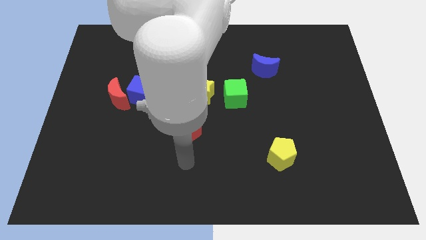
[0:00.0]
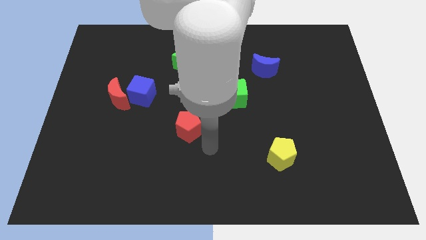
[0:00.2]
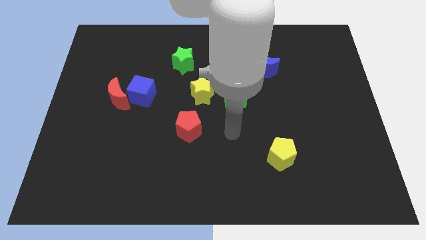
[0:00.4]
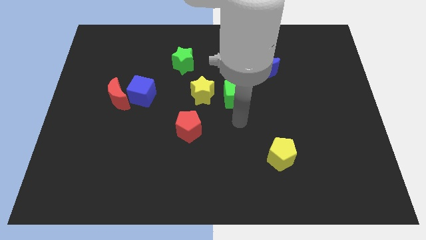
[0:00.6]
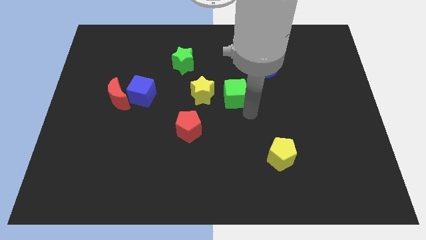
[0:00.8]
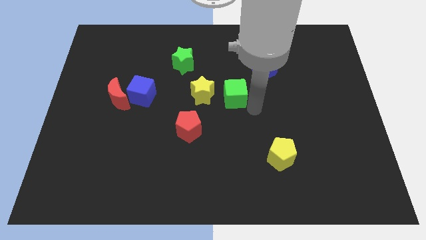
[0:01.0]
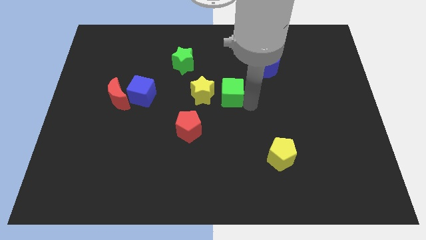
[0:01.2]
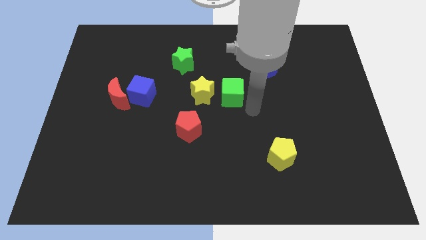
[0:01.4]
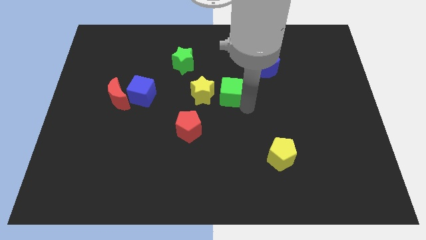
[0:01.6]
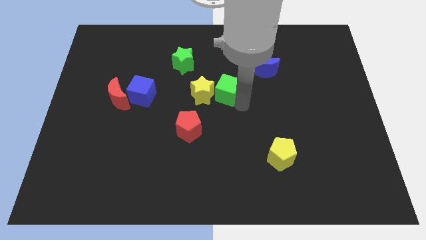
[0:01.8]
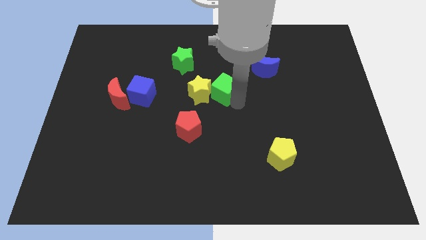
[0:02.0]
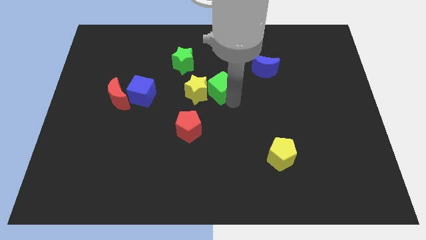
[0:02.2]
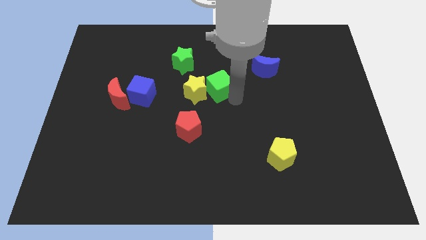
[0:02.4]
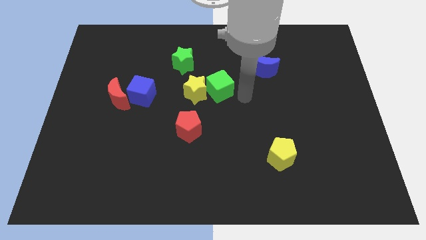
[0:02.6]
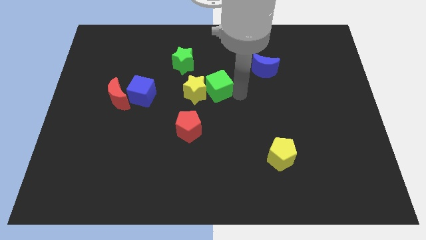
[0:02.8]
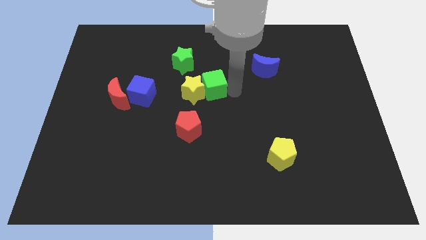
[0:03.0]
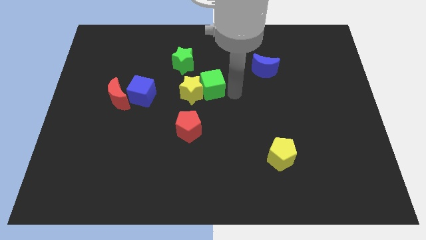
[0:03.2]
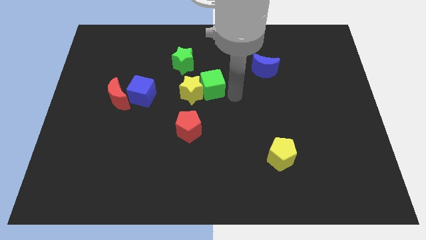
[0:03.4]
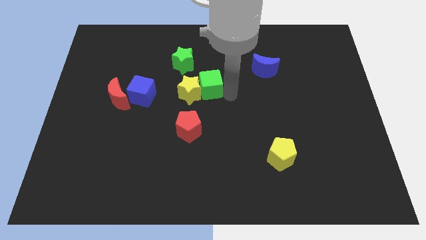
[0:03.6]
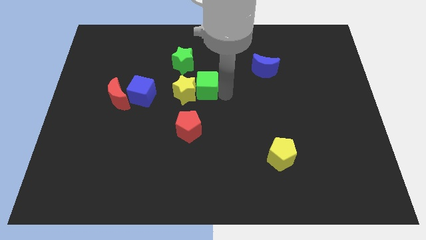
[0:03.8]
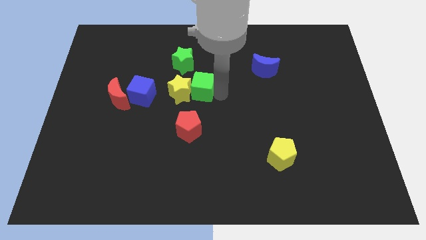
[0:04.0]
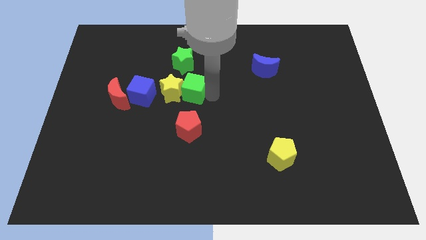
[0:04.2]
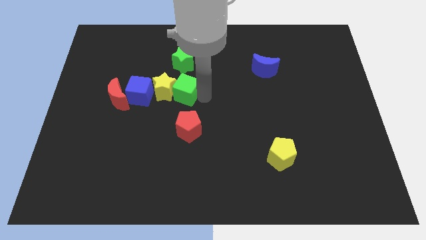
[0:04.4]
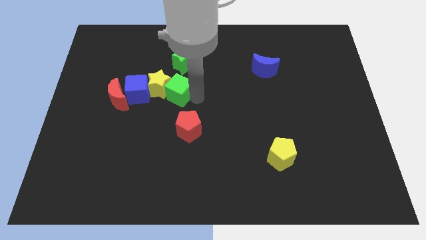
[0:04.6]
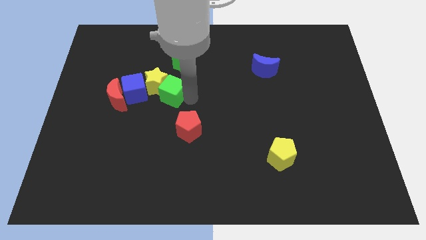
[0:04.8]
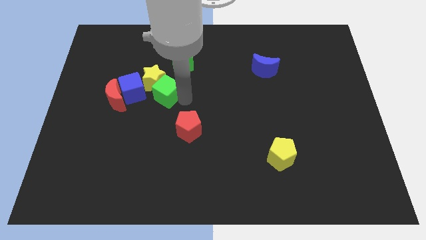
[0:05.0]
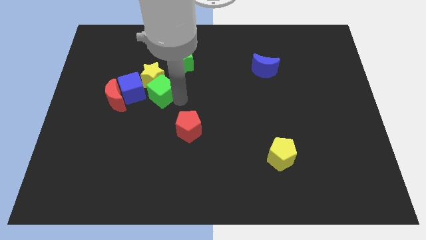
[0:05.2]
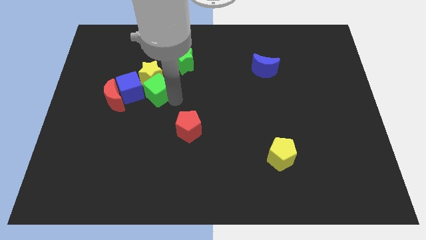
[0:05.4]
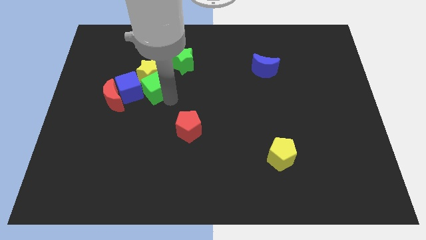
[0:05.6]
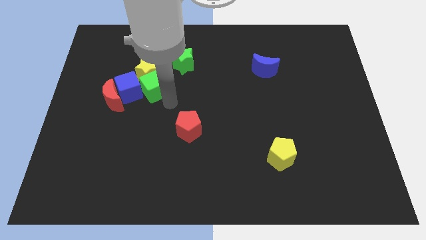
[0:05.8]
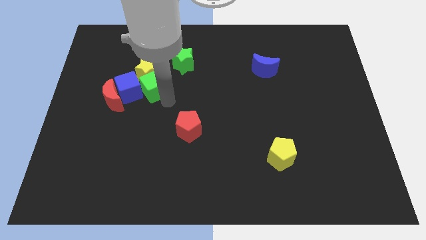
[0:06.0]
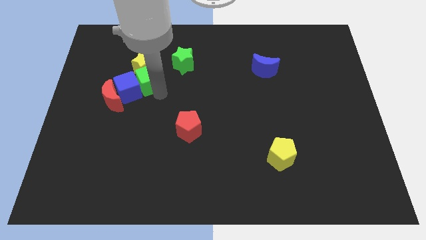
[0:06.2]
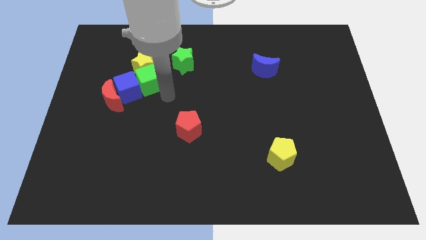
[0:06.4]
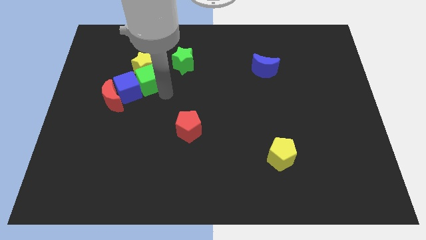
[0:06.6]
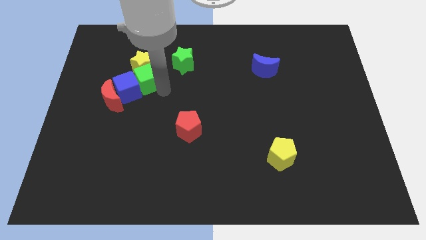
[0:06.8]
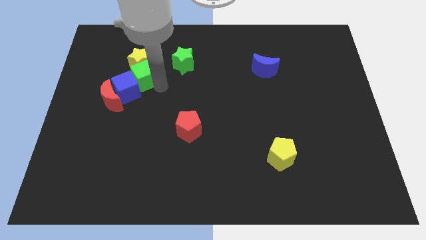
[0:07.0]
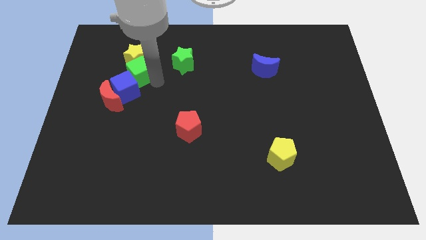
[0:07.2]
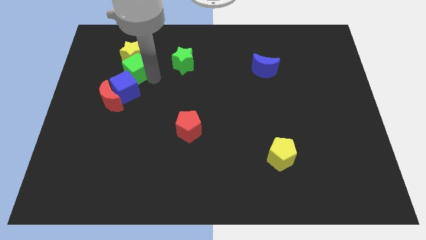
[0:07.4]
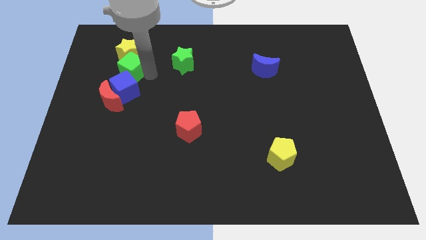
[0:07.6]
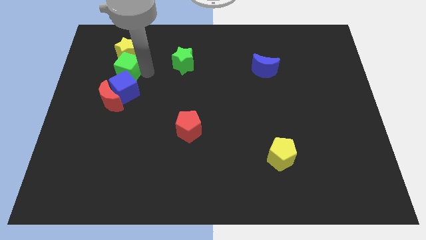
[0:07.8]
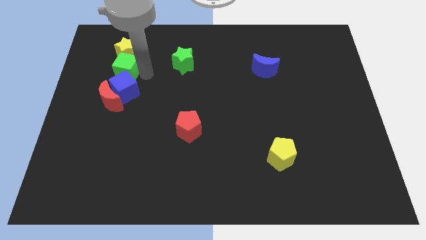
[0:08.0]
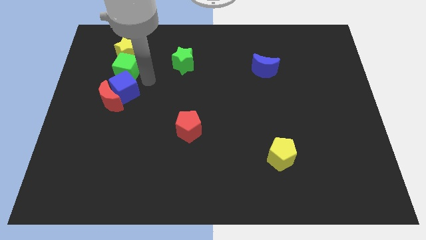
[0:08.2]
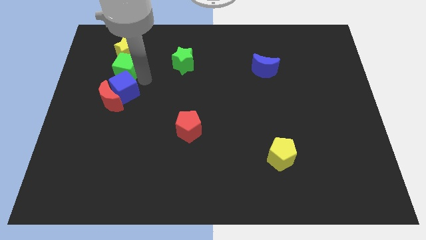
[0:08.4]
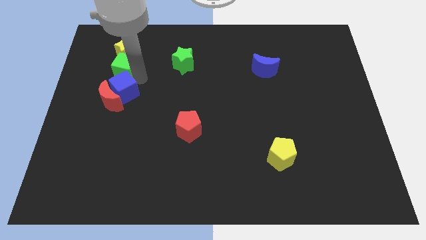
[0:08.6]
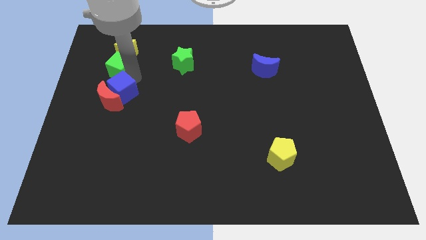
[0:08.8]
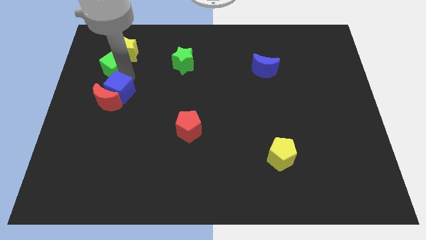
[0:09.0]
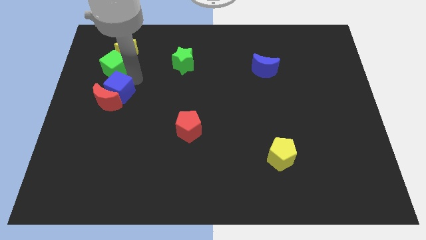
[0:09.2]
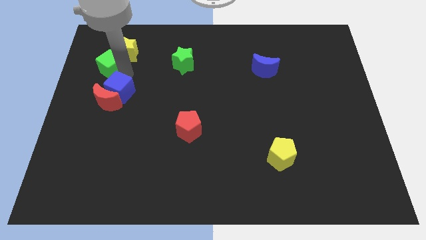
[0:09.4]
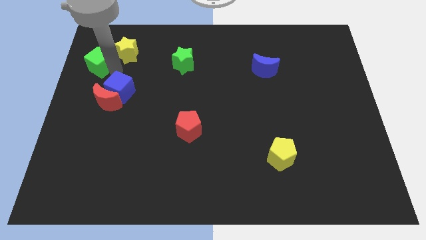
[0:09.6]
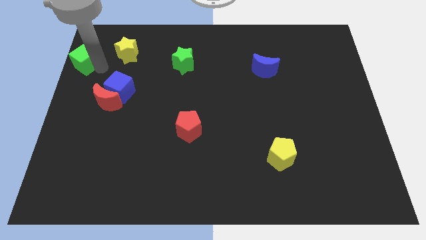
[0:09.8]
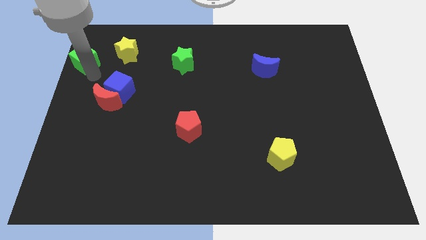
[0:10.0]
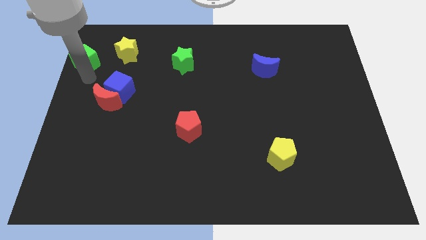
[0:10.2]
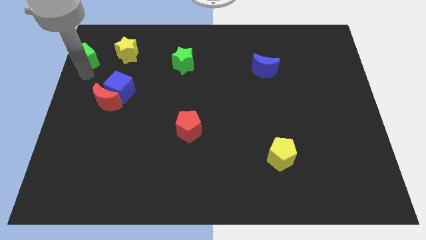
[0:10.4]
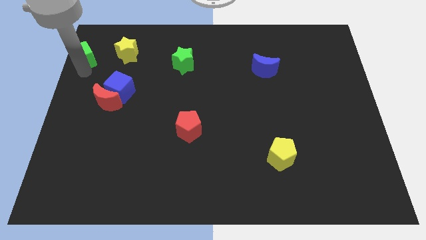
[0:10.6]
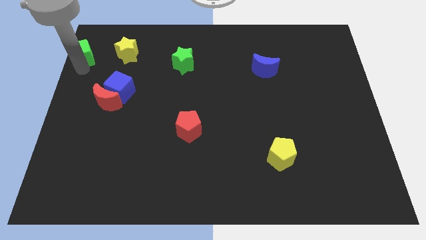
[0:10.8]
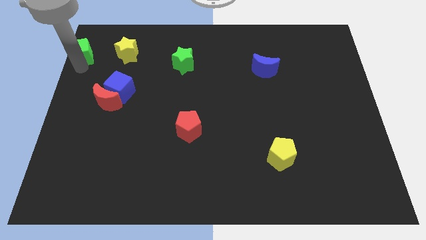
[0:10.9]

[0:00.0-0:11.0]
push the green cube to the upper left corner

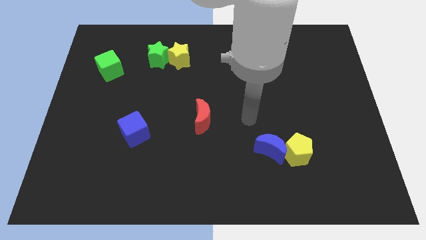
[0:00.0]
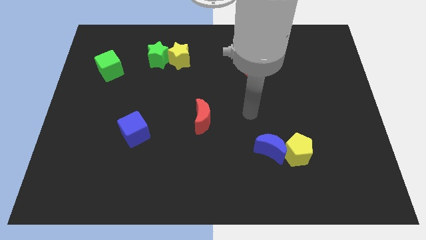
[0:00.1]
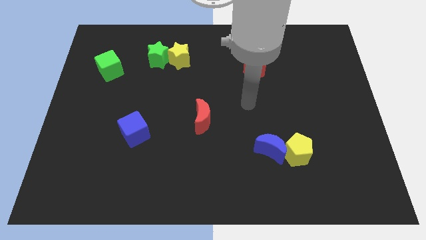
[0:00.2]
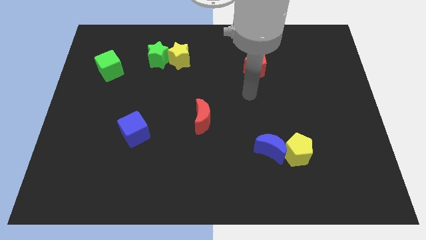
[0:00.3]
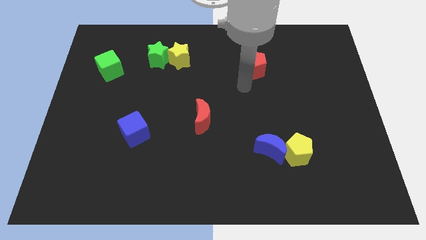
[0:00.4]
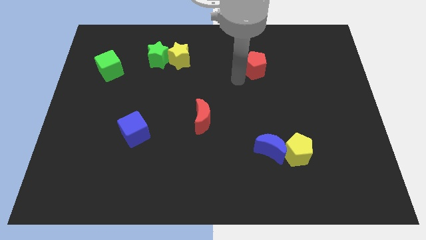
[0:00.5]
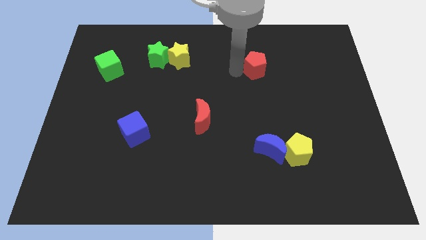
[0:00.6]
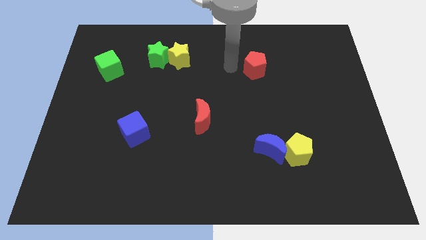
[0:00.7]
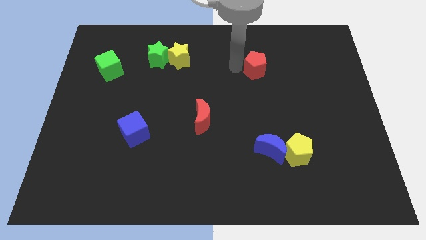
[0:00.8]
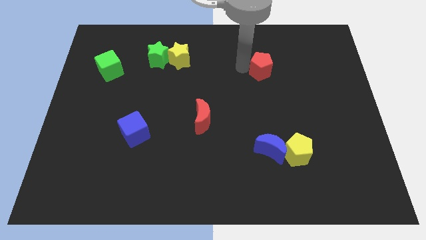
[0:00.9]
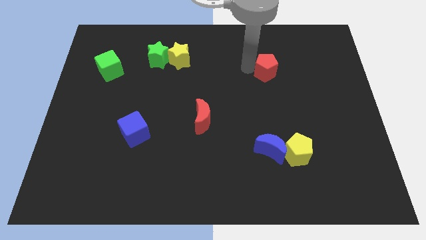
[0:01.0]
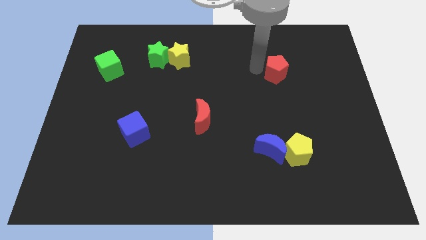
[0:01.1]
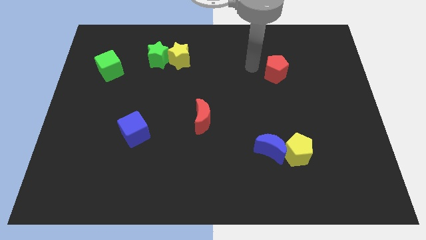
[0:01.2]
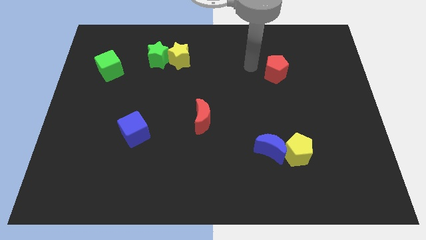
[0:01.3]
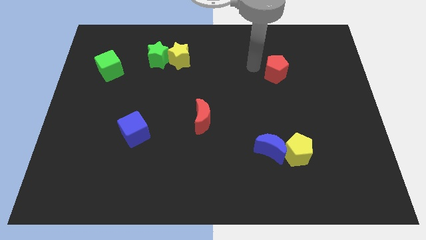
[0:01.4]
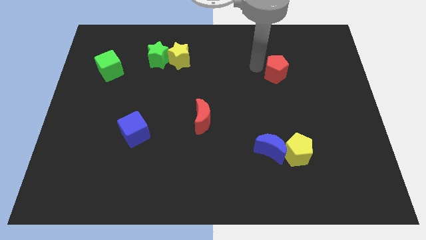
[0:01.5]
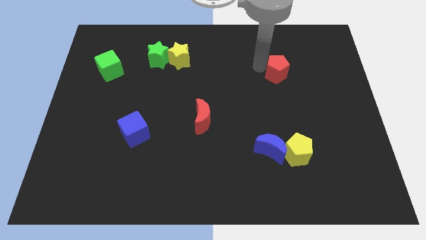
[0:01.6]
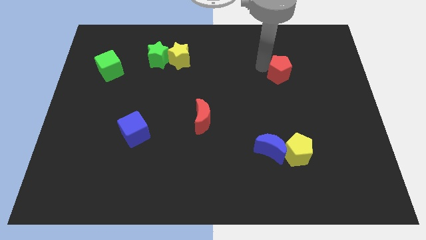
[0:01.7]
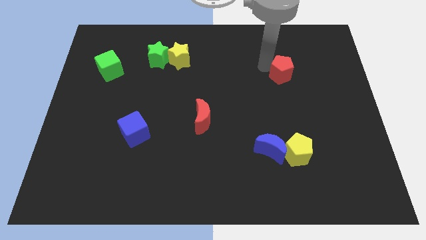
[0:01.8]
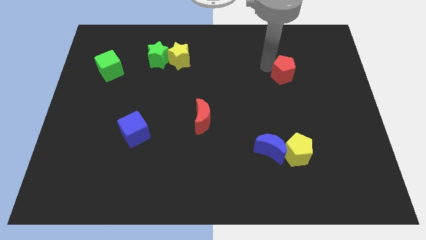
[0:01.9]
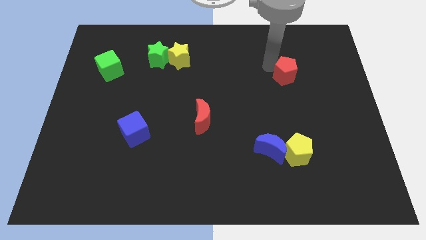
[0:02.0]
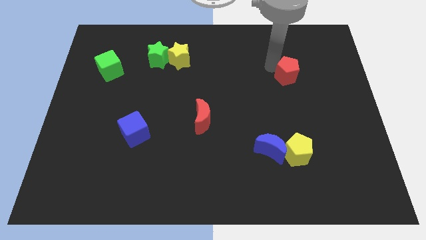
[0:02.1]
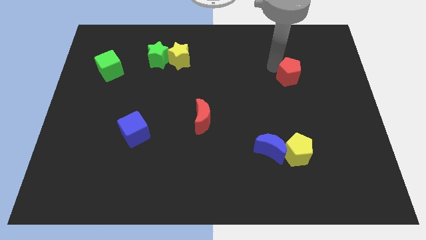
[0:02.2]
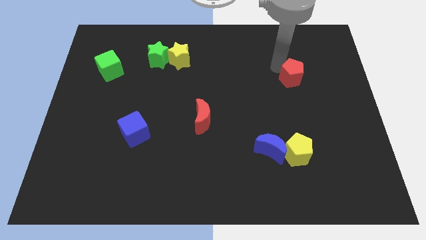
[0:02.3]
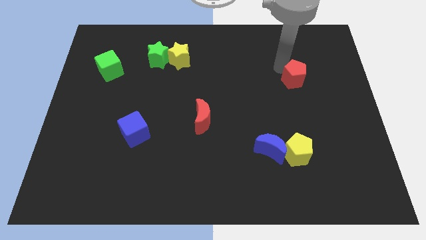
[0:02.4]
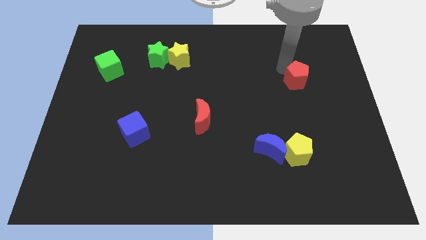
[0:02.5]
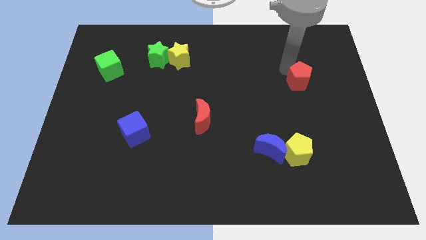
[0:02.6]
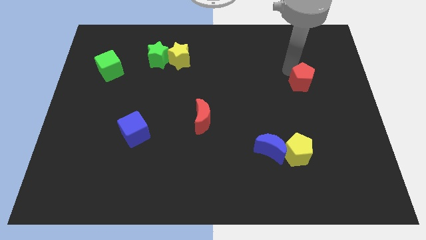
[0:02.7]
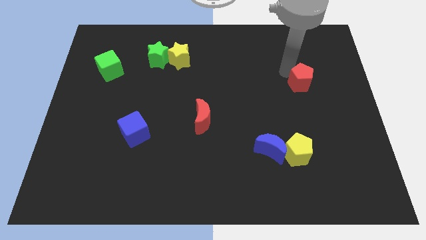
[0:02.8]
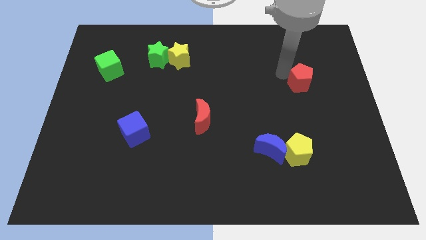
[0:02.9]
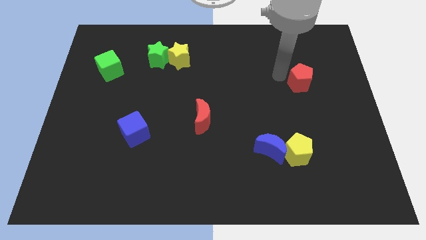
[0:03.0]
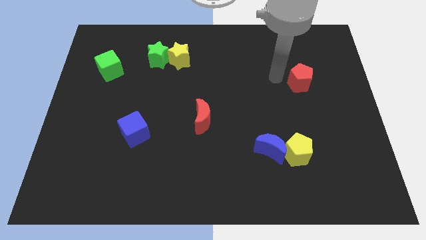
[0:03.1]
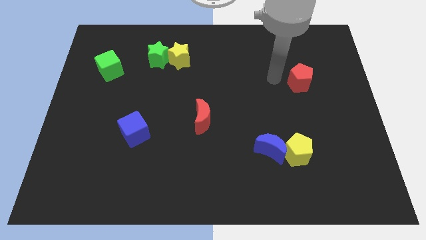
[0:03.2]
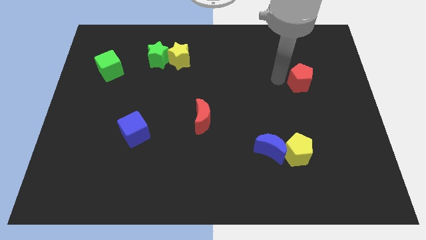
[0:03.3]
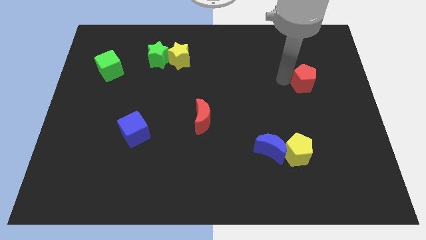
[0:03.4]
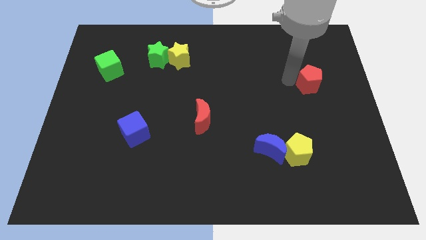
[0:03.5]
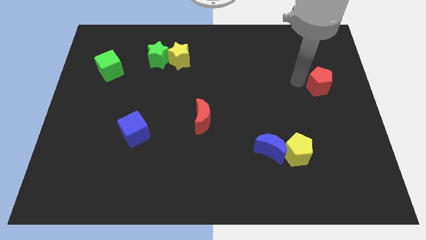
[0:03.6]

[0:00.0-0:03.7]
move the red pentagon to the right side
